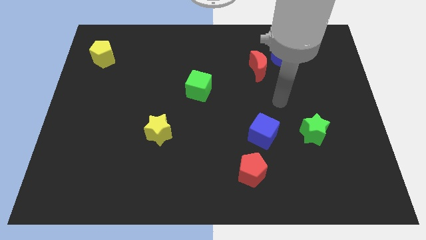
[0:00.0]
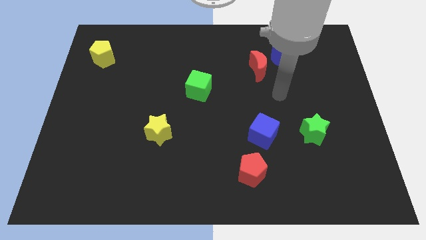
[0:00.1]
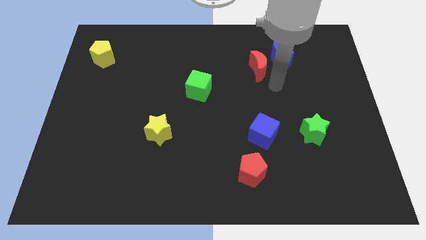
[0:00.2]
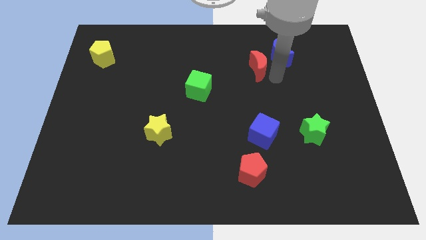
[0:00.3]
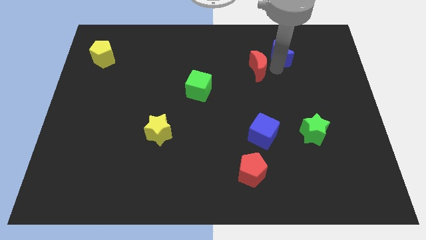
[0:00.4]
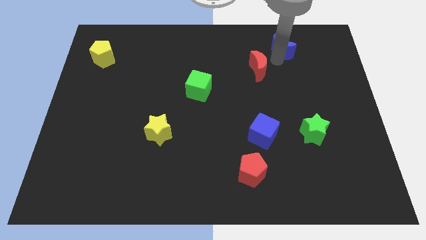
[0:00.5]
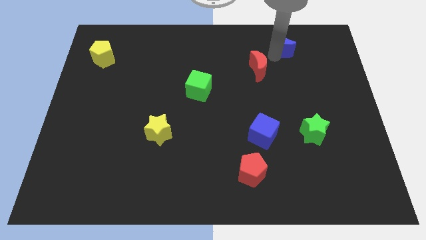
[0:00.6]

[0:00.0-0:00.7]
separate the red moon from the blue moon

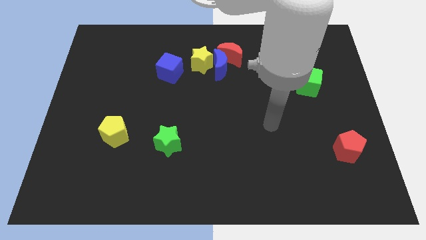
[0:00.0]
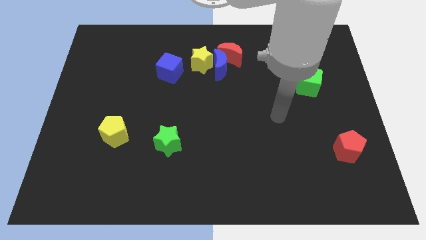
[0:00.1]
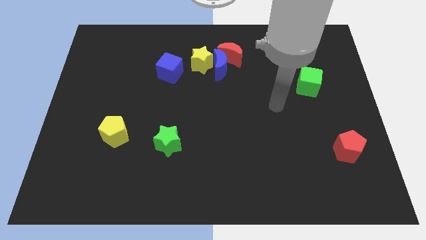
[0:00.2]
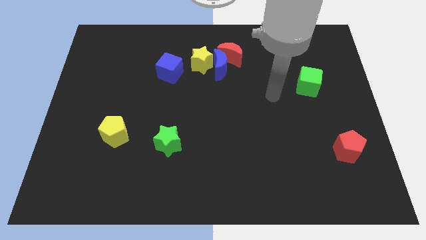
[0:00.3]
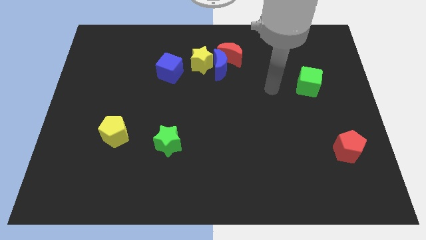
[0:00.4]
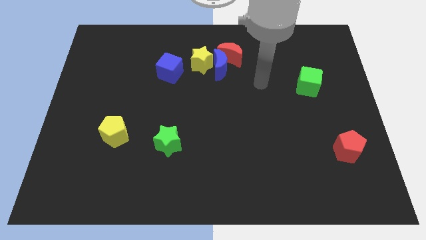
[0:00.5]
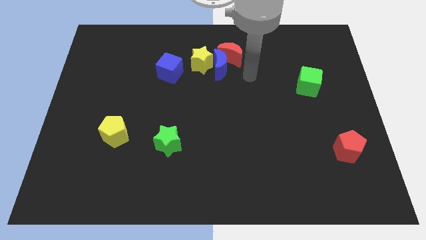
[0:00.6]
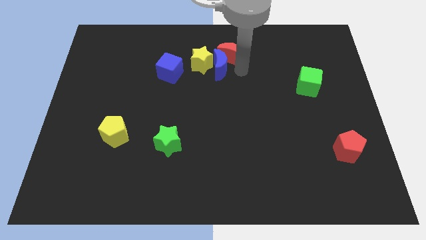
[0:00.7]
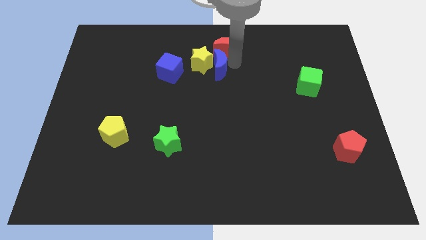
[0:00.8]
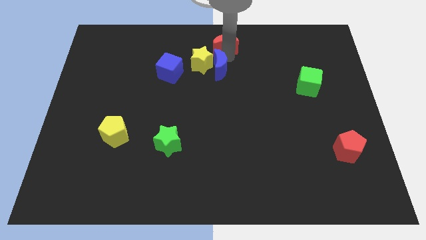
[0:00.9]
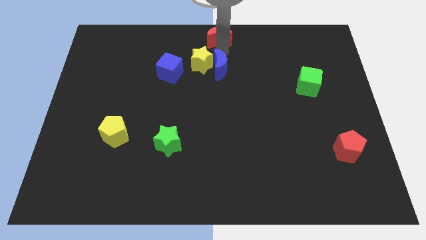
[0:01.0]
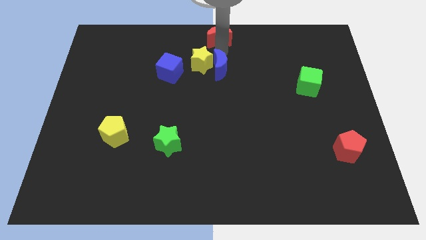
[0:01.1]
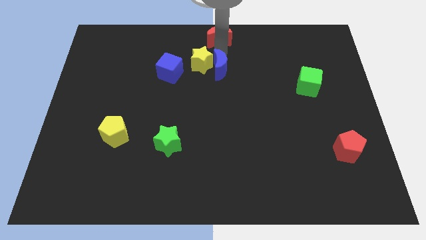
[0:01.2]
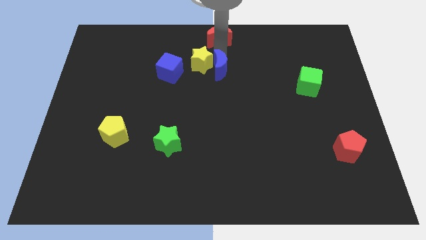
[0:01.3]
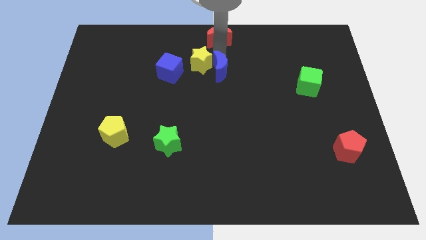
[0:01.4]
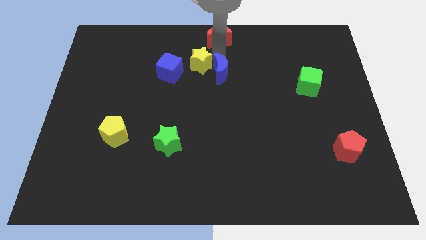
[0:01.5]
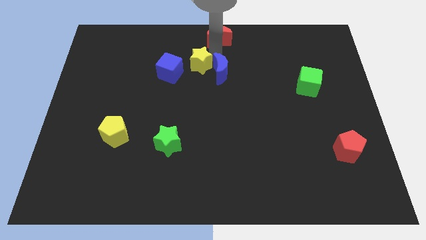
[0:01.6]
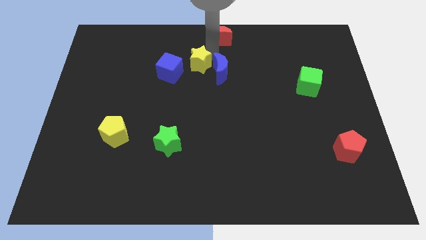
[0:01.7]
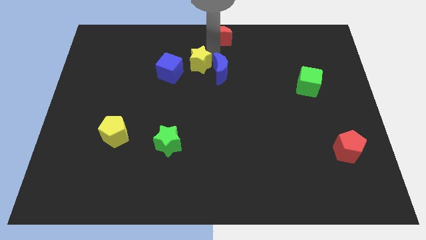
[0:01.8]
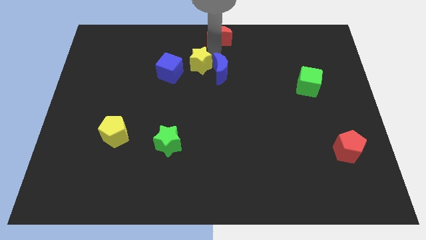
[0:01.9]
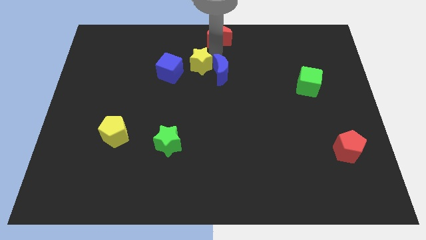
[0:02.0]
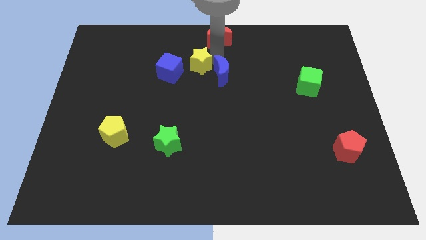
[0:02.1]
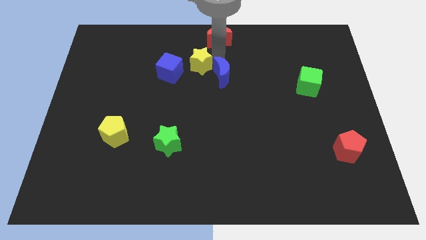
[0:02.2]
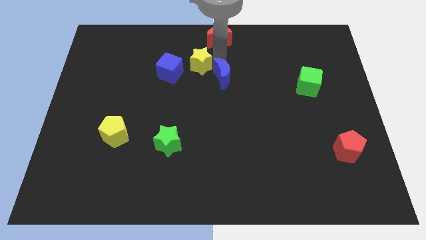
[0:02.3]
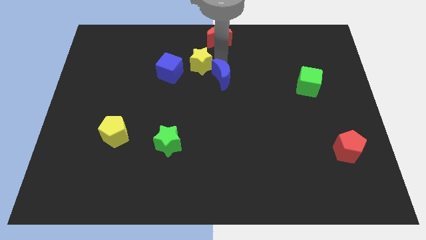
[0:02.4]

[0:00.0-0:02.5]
move the blue moon away from the red moon and yellow star
